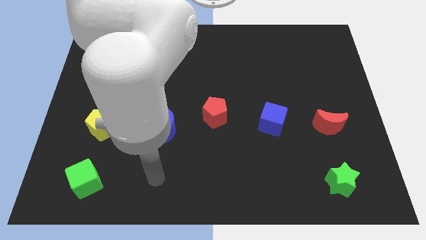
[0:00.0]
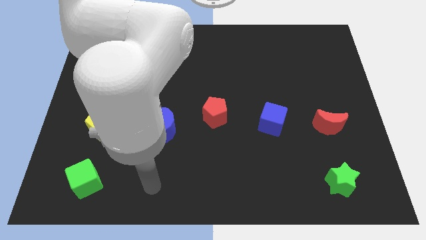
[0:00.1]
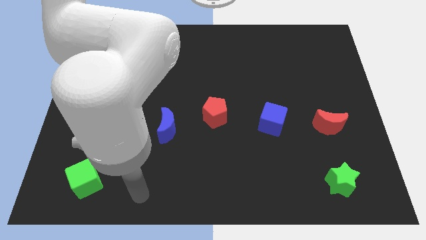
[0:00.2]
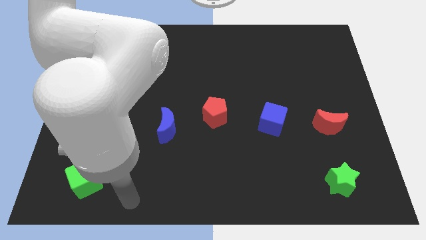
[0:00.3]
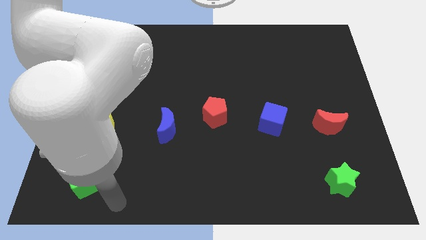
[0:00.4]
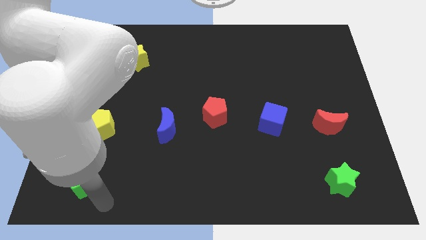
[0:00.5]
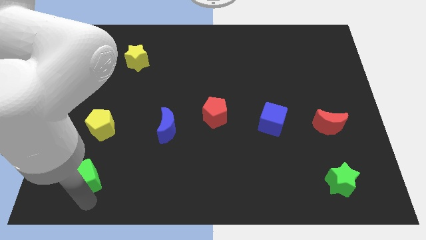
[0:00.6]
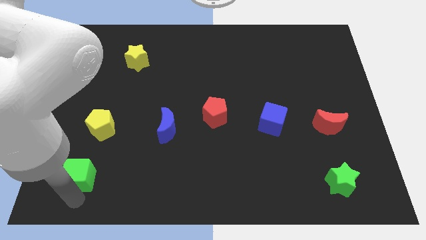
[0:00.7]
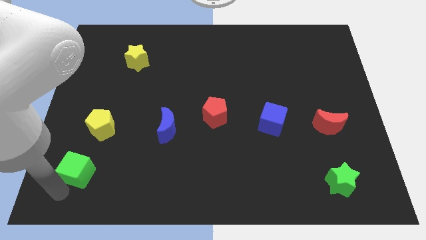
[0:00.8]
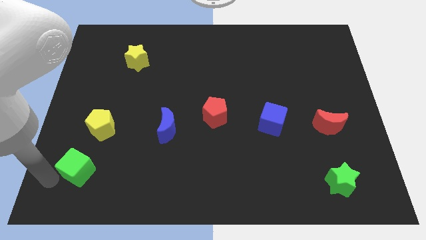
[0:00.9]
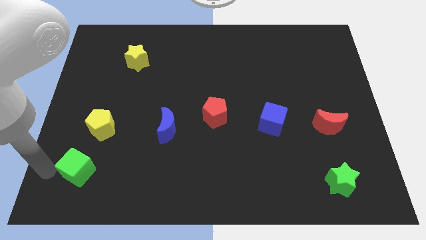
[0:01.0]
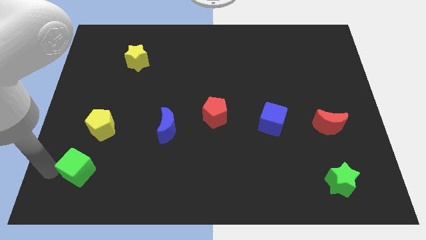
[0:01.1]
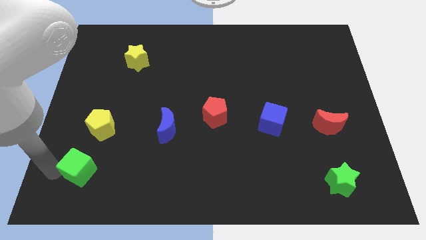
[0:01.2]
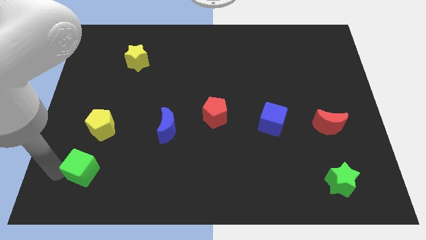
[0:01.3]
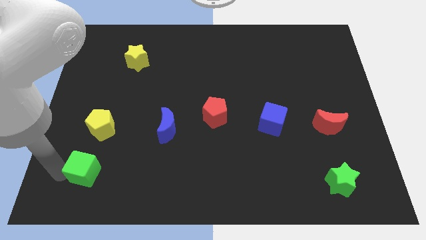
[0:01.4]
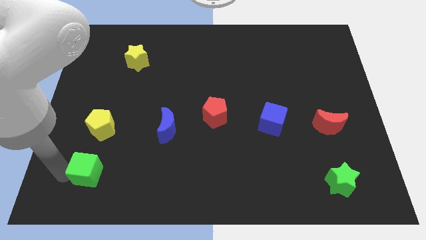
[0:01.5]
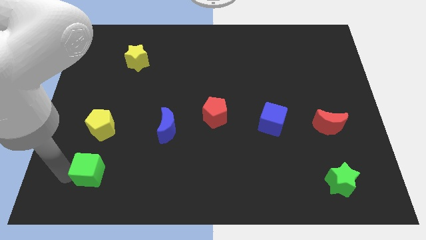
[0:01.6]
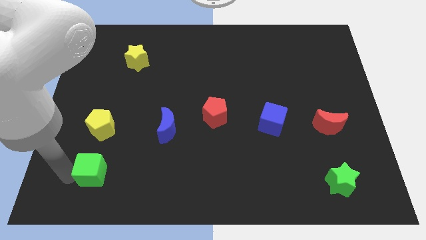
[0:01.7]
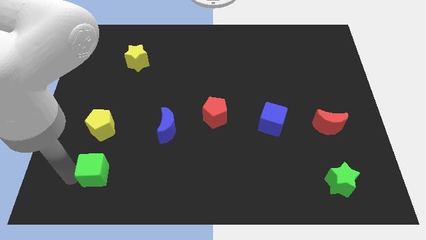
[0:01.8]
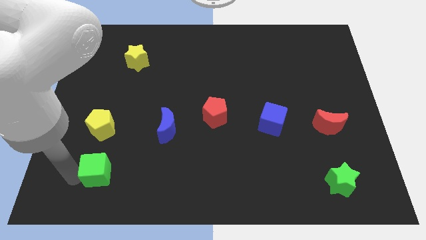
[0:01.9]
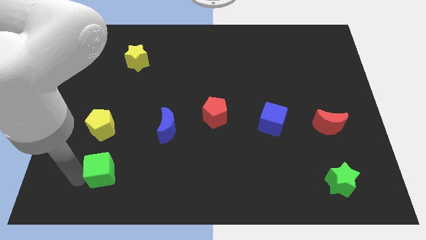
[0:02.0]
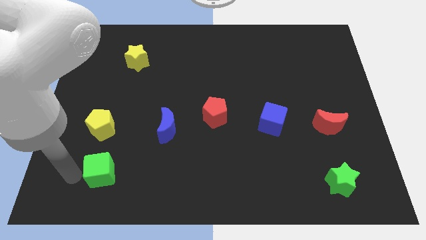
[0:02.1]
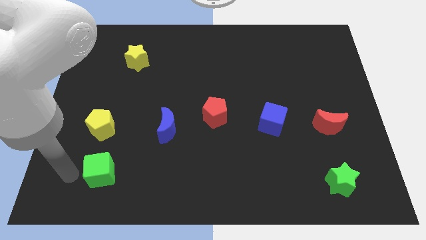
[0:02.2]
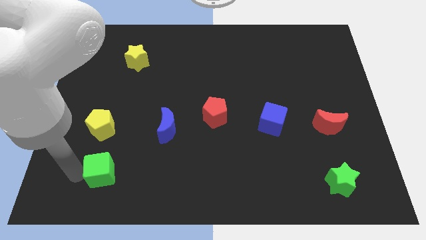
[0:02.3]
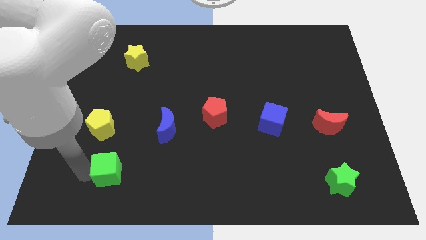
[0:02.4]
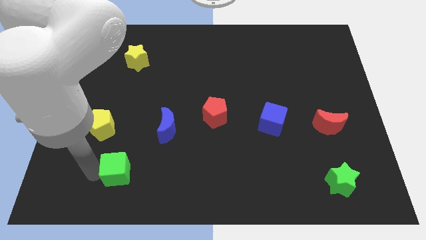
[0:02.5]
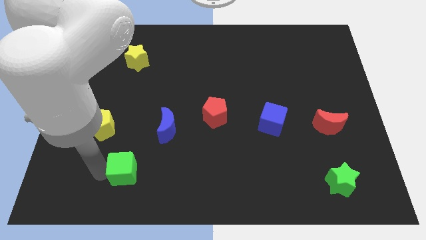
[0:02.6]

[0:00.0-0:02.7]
slide the green cube to the right a little bit

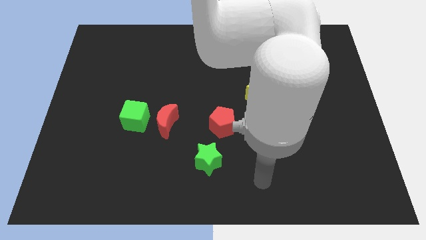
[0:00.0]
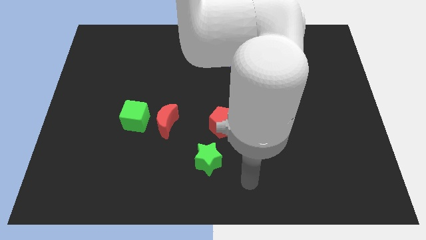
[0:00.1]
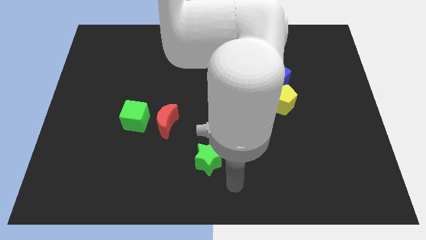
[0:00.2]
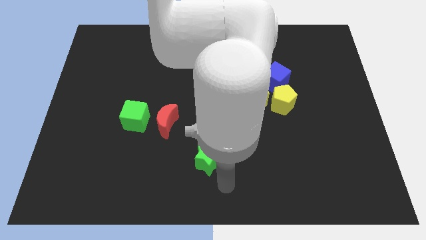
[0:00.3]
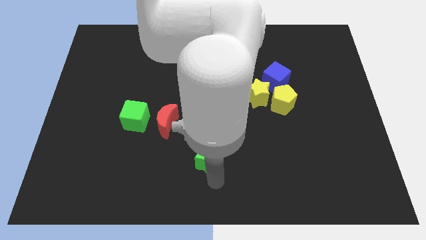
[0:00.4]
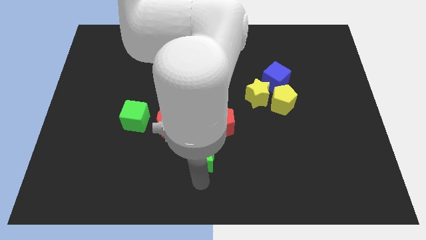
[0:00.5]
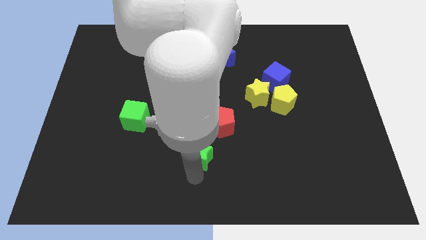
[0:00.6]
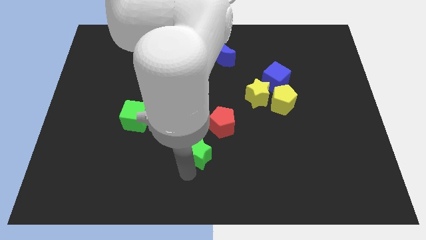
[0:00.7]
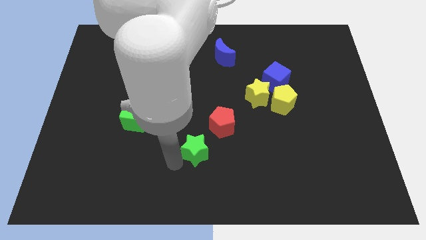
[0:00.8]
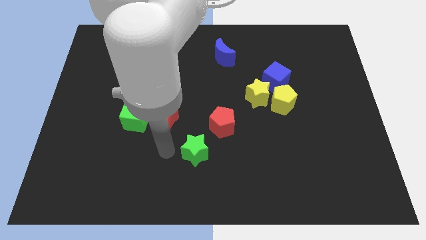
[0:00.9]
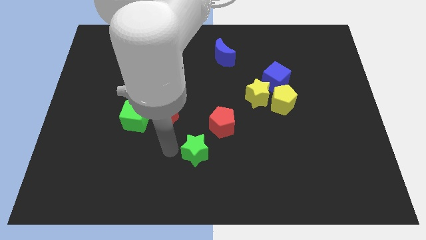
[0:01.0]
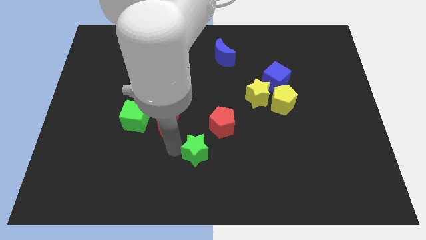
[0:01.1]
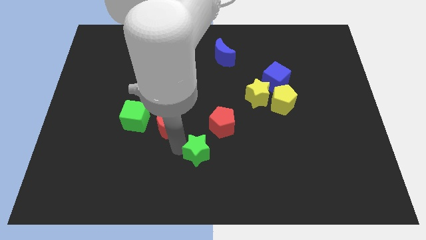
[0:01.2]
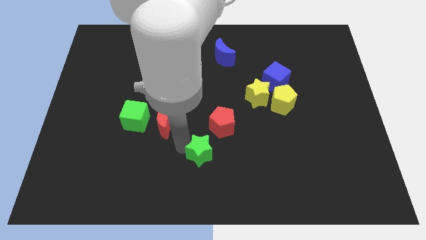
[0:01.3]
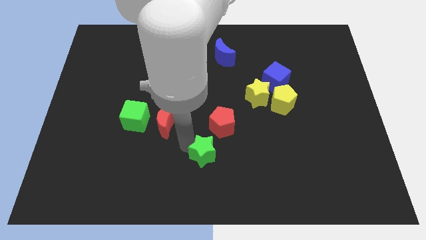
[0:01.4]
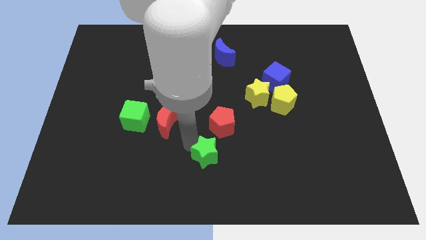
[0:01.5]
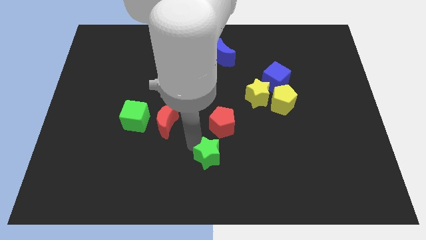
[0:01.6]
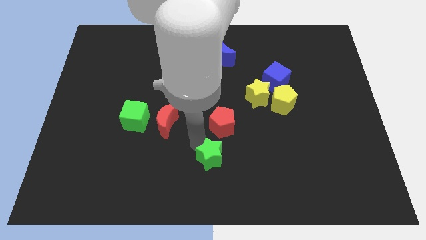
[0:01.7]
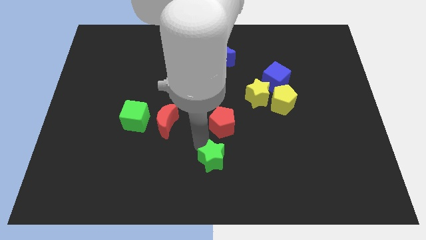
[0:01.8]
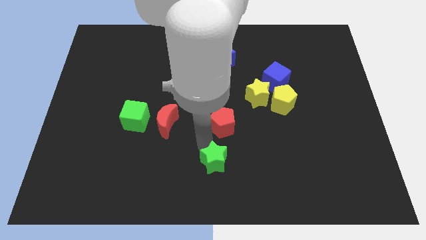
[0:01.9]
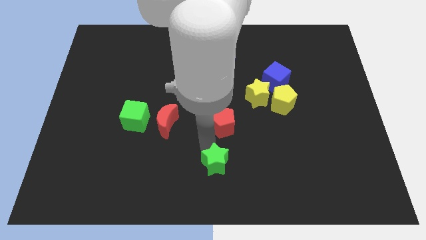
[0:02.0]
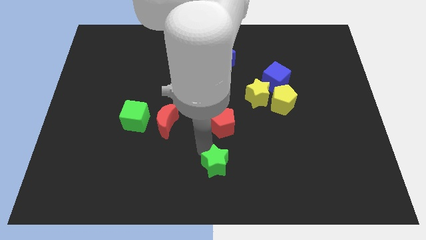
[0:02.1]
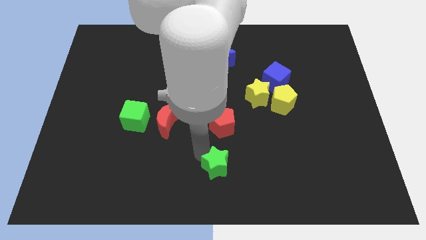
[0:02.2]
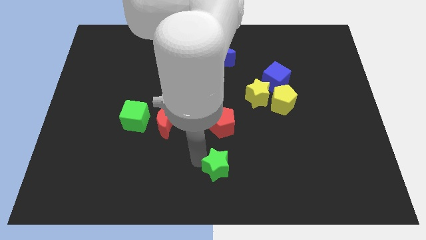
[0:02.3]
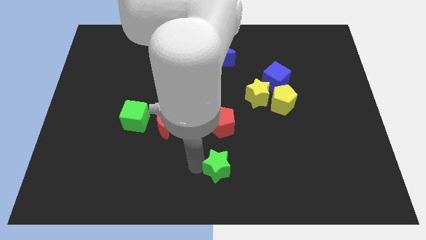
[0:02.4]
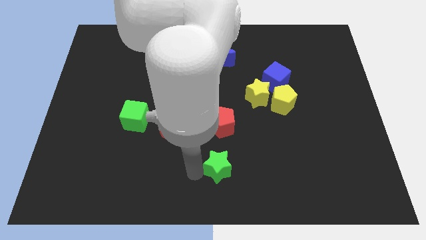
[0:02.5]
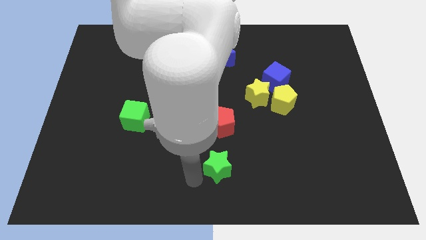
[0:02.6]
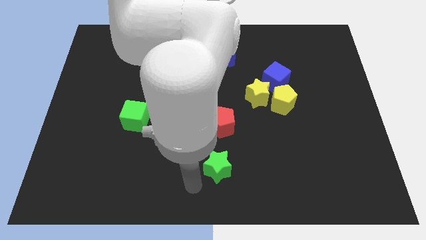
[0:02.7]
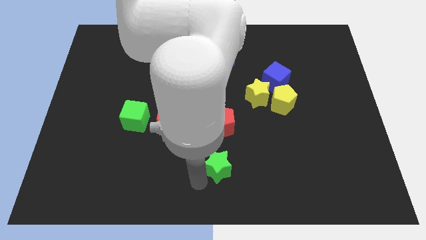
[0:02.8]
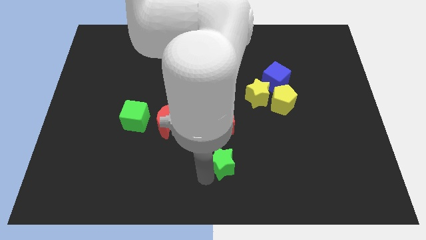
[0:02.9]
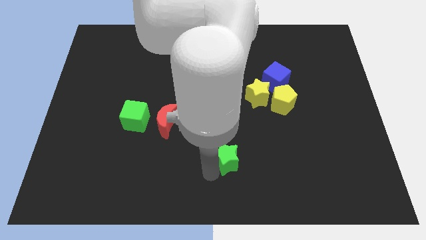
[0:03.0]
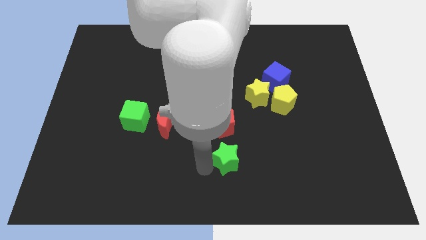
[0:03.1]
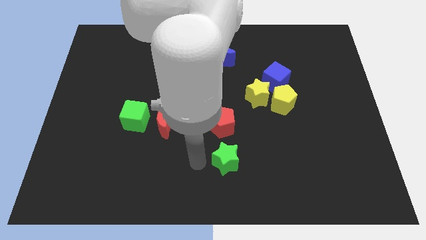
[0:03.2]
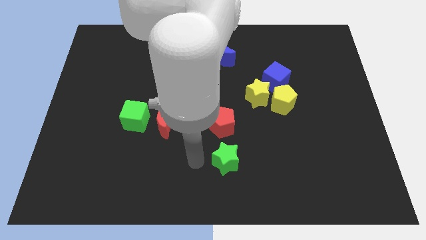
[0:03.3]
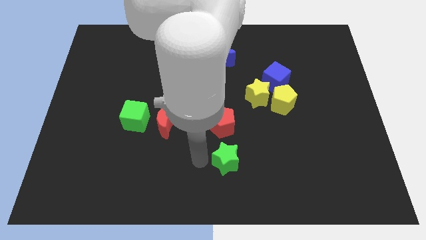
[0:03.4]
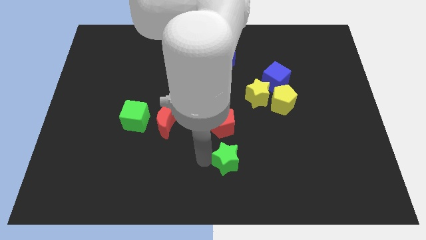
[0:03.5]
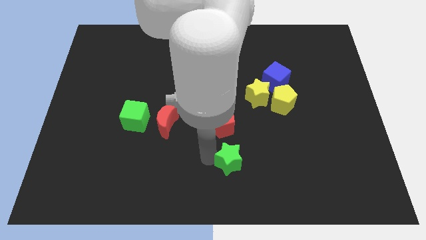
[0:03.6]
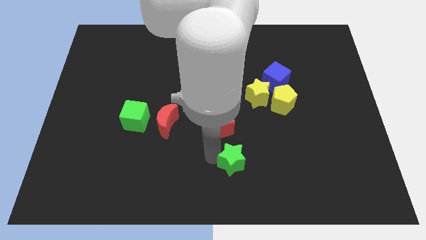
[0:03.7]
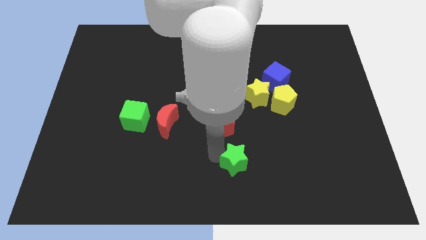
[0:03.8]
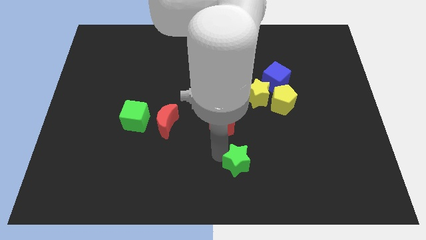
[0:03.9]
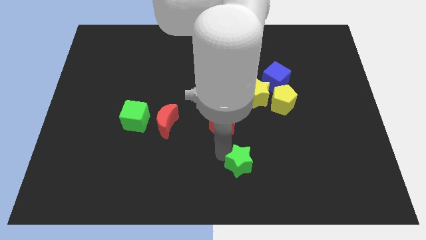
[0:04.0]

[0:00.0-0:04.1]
slide the green star right a little

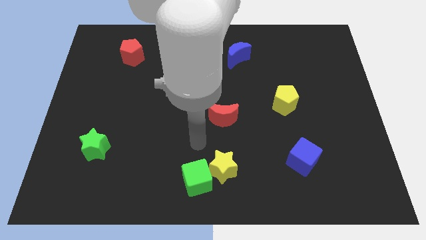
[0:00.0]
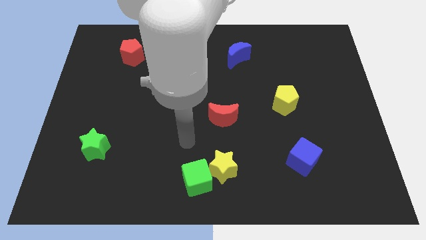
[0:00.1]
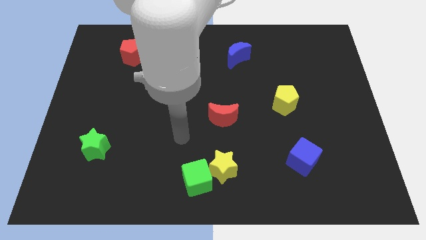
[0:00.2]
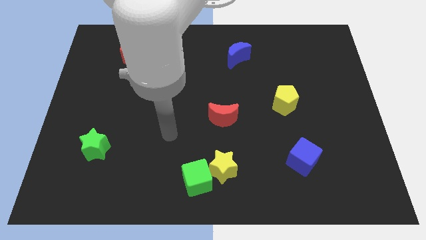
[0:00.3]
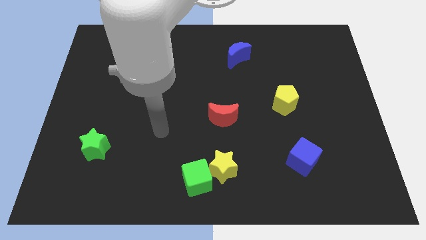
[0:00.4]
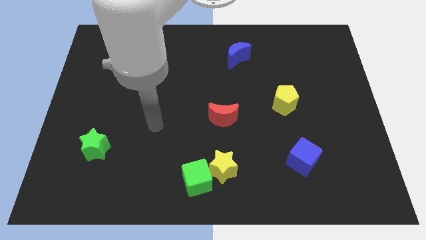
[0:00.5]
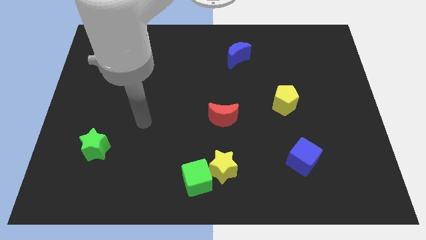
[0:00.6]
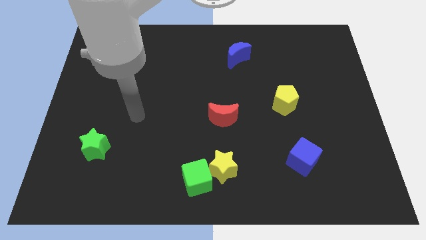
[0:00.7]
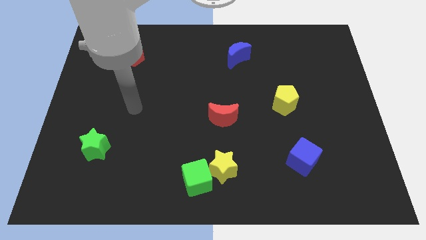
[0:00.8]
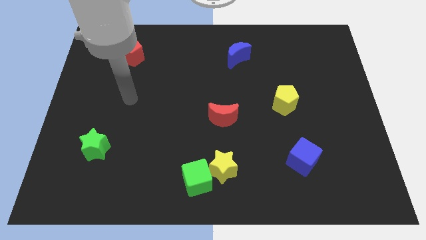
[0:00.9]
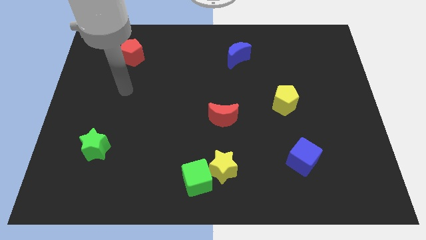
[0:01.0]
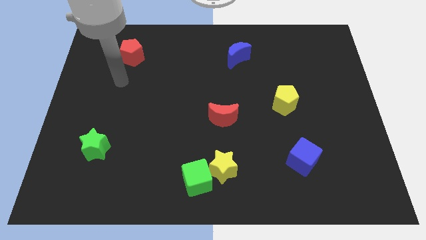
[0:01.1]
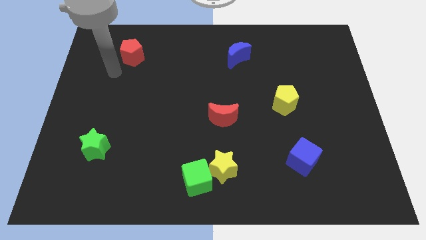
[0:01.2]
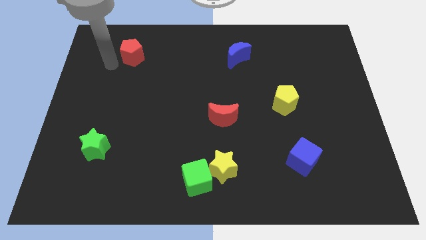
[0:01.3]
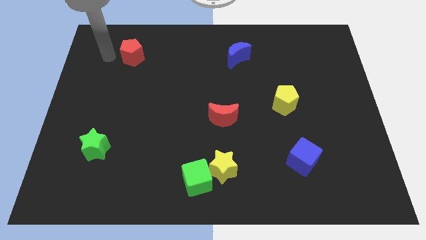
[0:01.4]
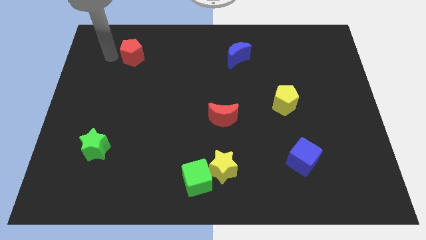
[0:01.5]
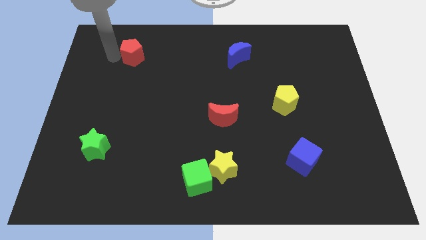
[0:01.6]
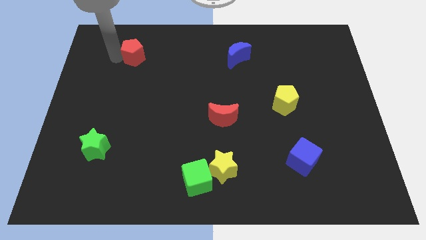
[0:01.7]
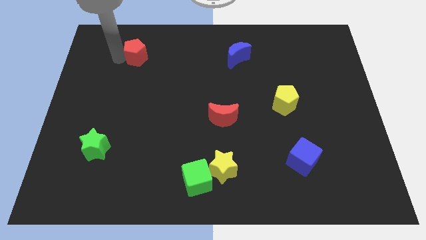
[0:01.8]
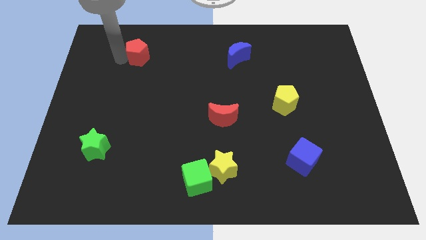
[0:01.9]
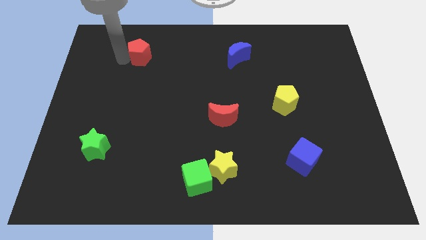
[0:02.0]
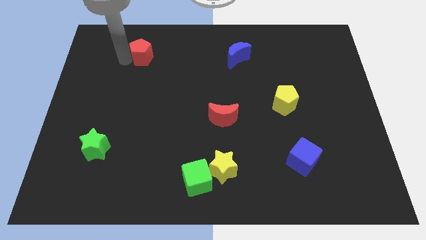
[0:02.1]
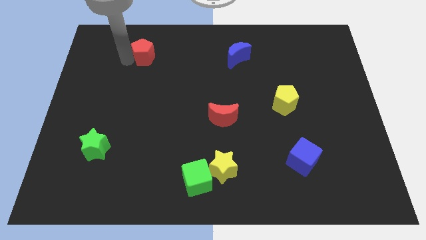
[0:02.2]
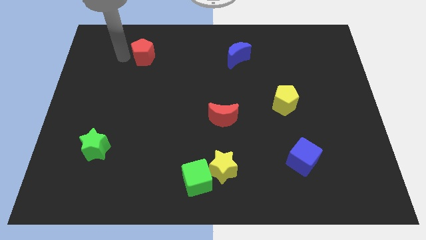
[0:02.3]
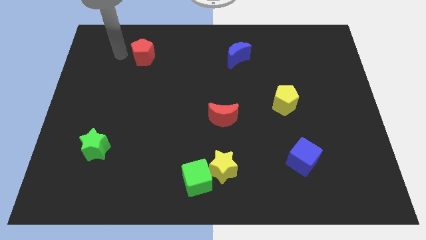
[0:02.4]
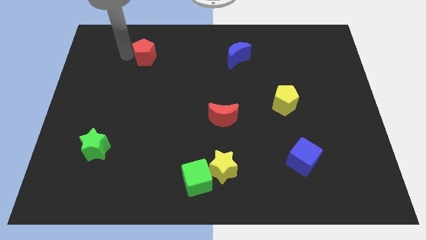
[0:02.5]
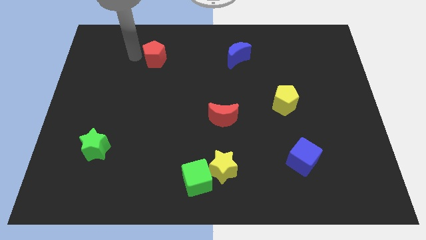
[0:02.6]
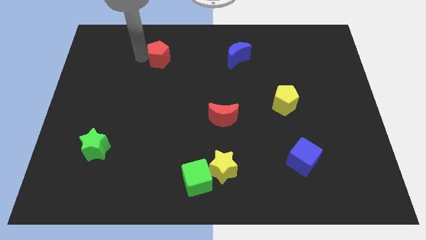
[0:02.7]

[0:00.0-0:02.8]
push the red pentagon somewhat to the right
